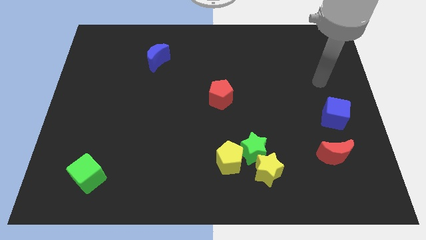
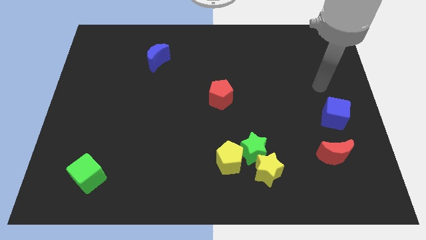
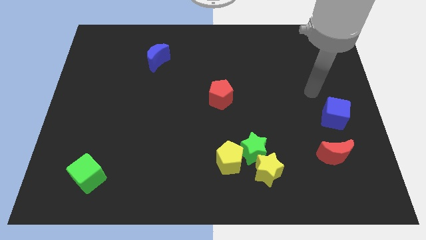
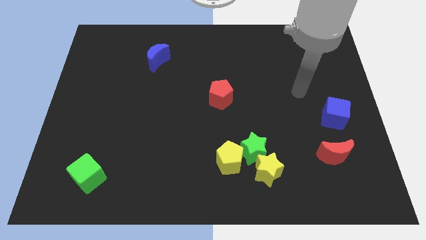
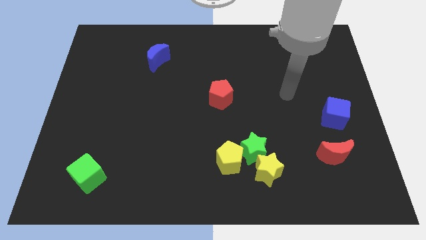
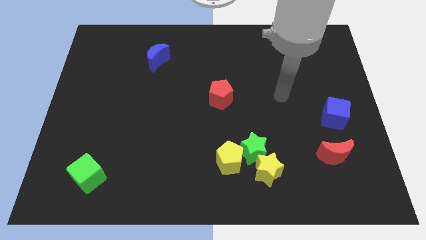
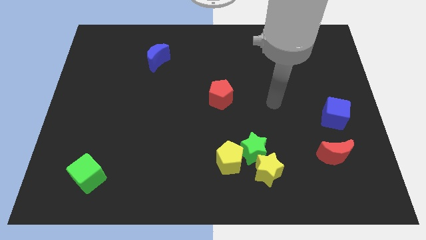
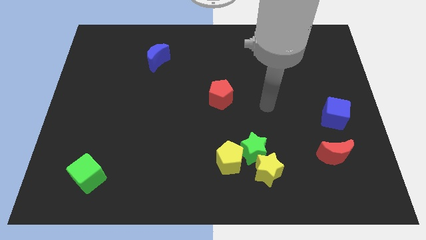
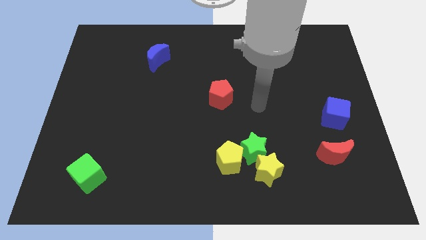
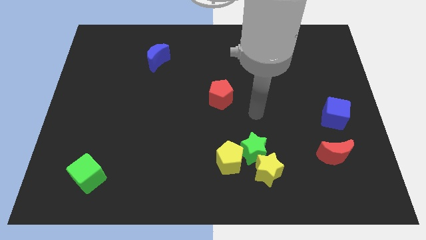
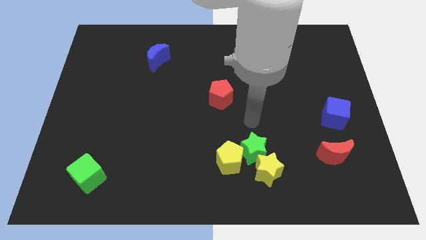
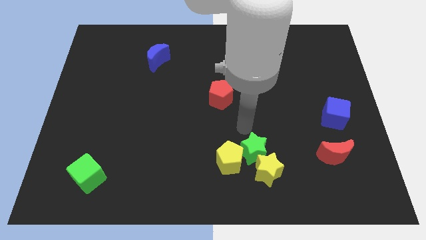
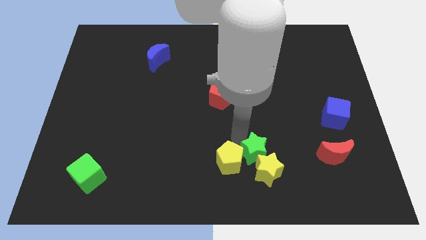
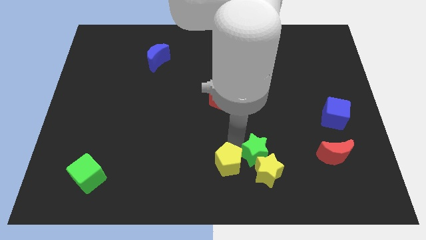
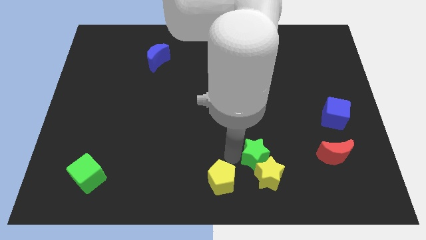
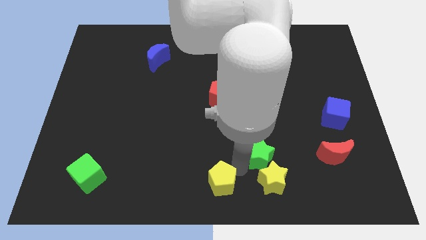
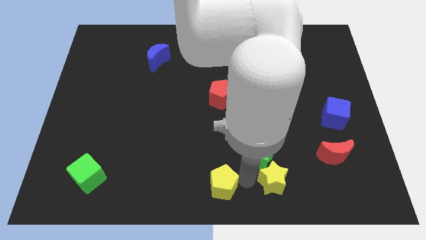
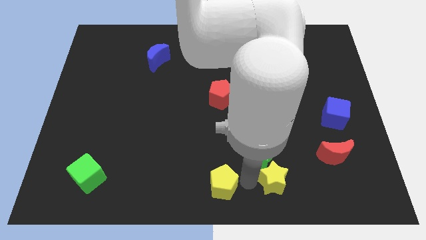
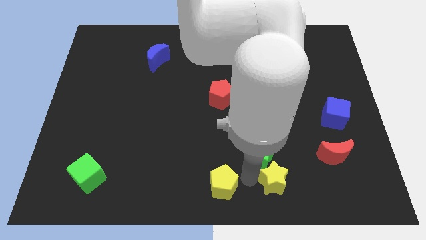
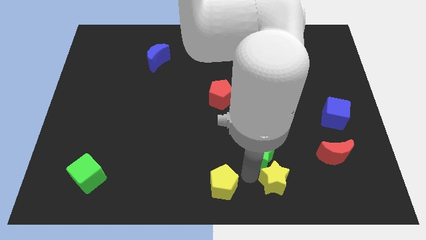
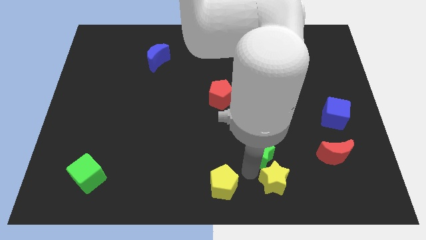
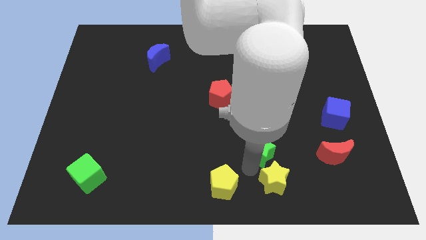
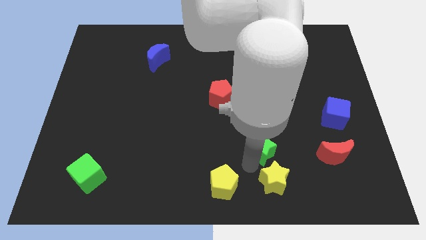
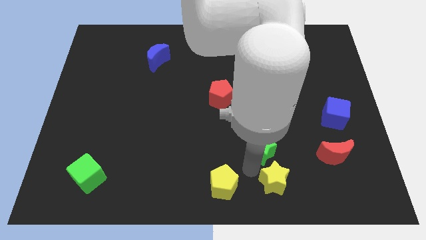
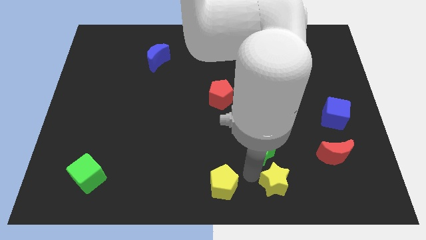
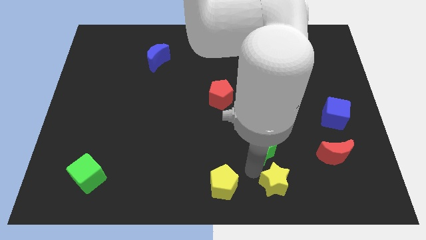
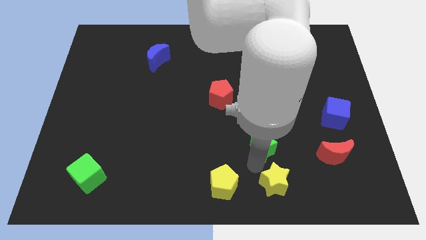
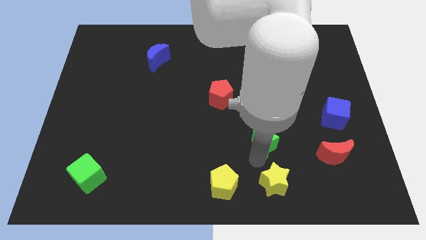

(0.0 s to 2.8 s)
move the green star away from the yellow star and yellow pentagon

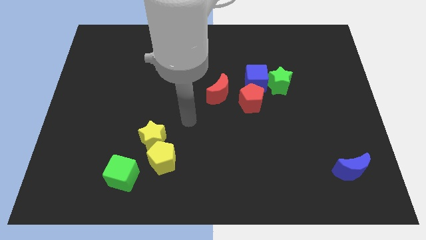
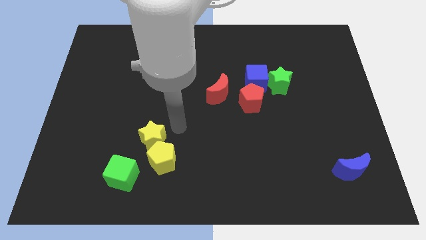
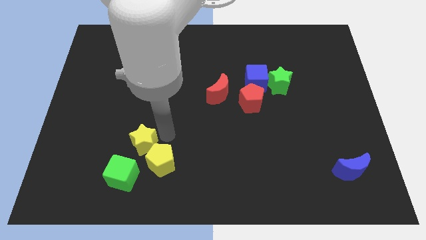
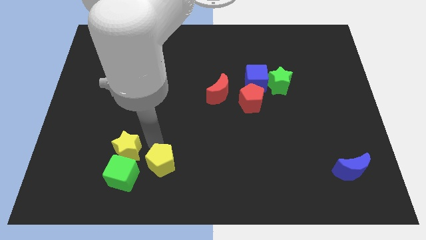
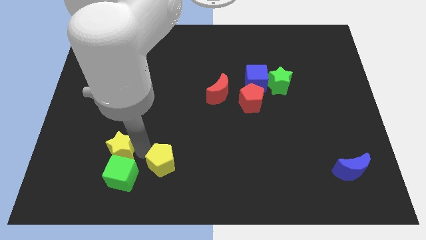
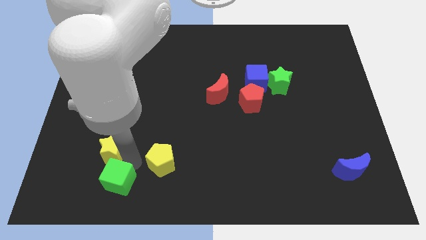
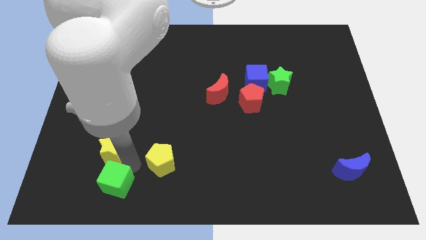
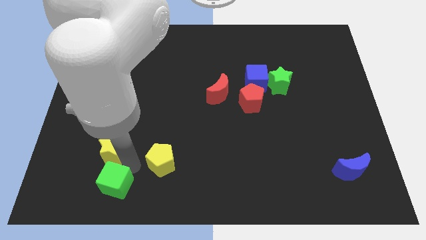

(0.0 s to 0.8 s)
separate the yellow pentagon from the yellow star and green cube

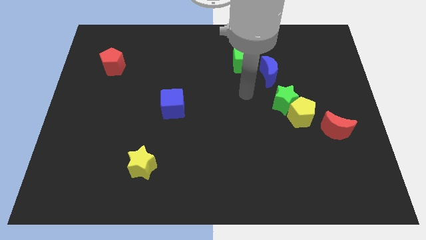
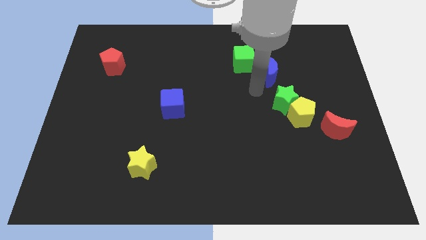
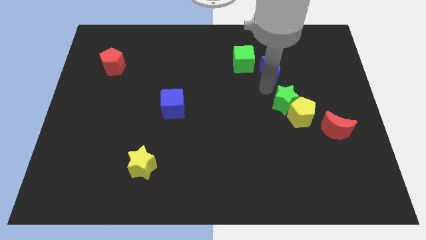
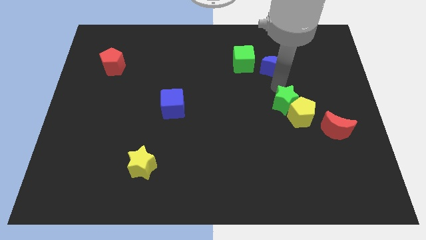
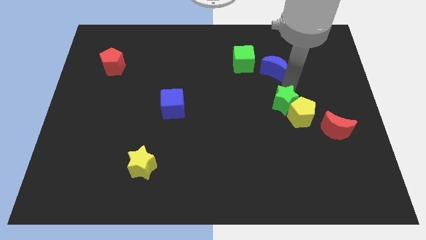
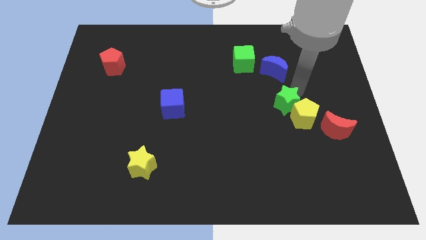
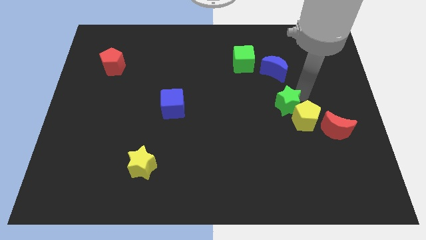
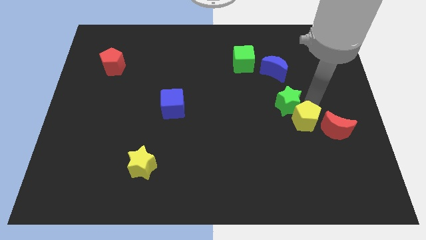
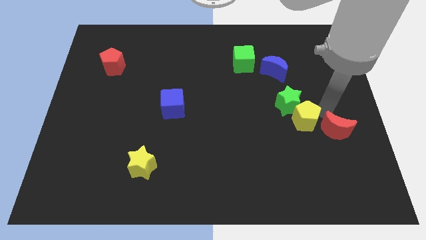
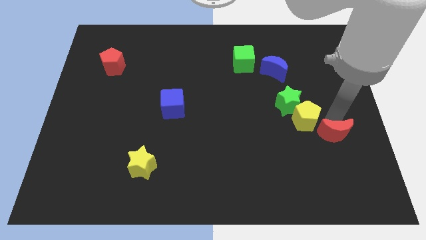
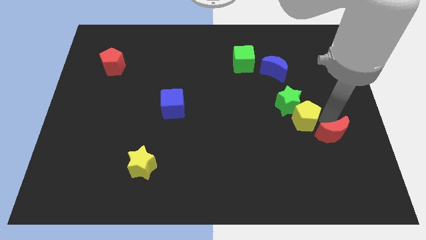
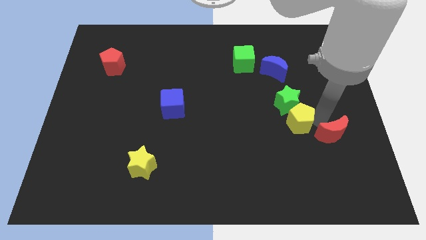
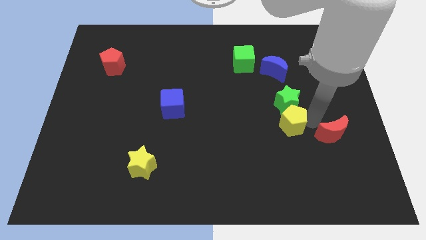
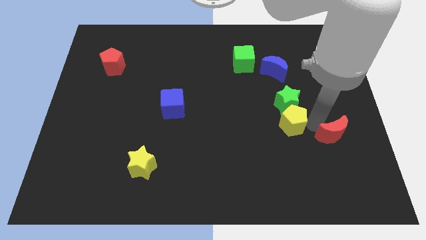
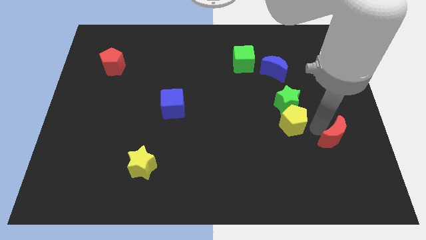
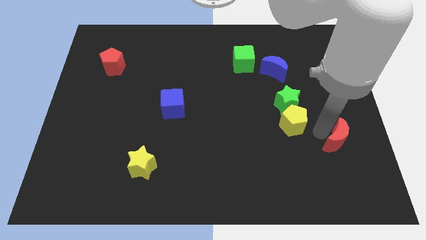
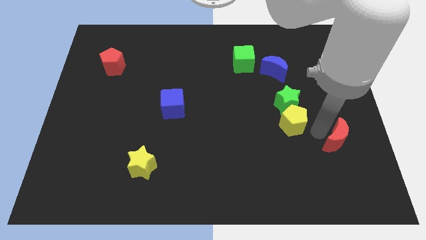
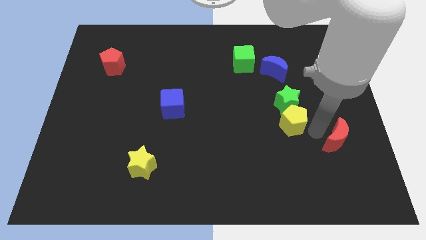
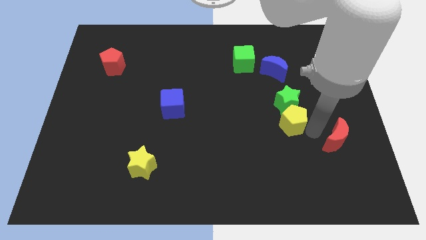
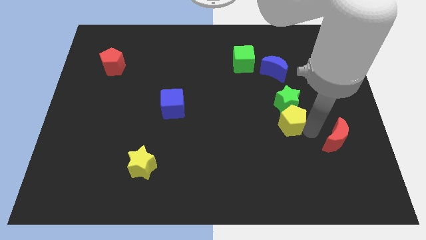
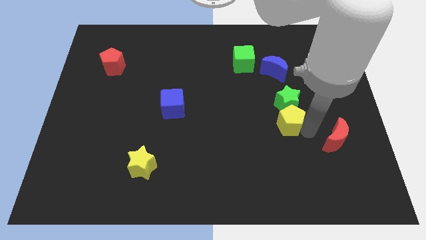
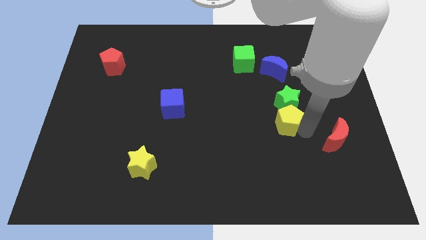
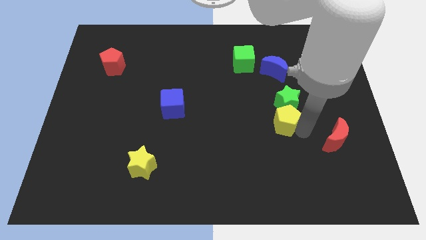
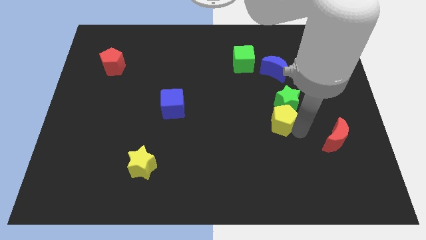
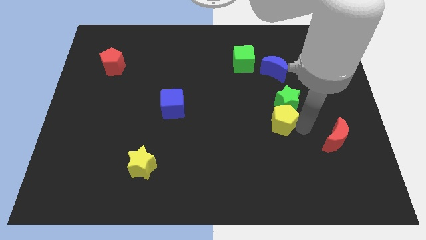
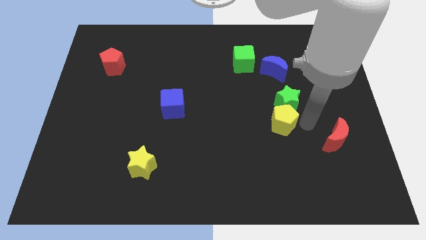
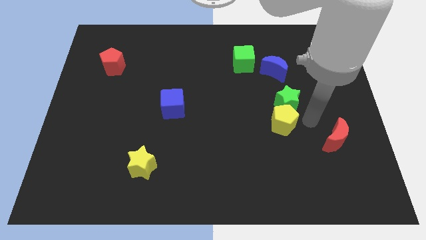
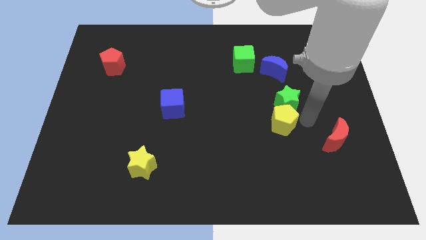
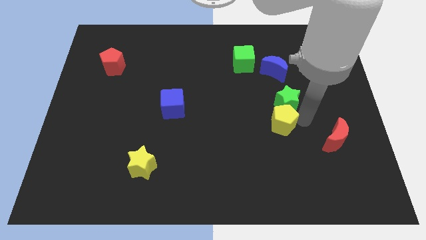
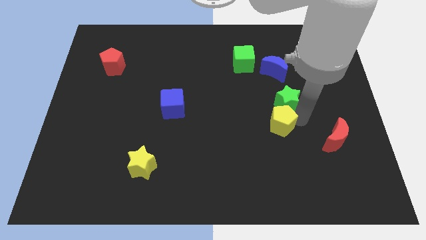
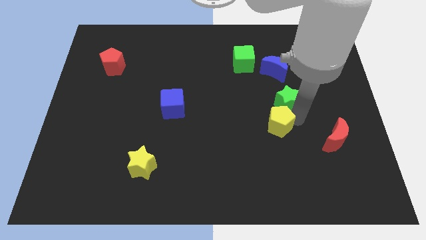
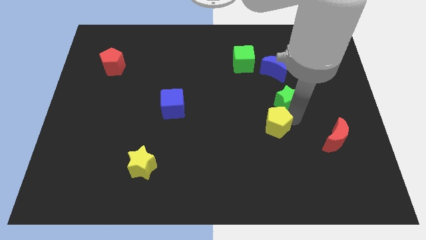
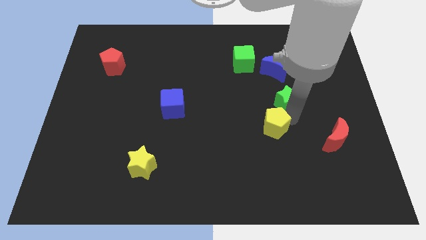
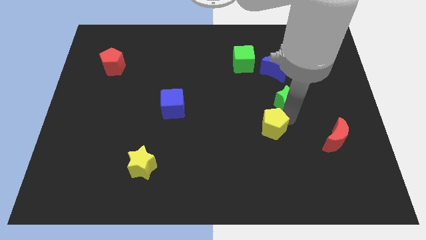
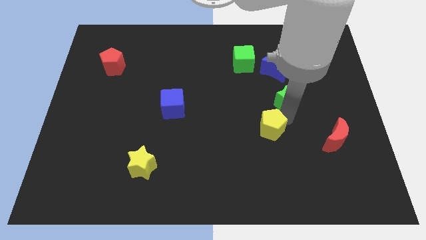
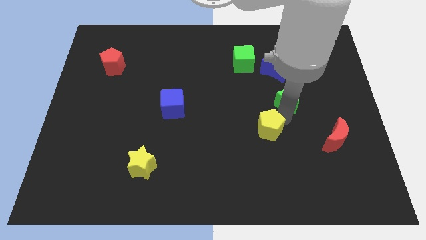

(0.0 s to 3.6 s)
move the yellow pentagon away from the green star and red moon

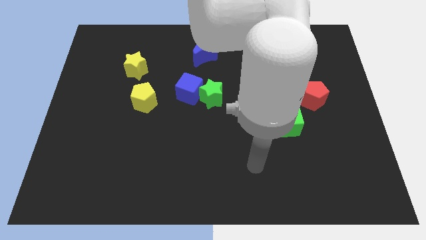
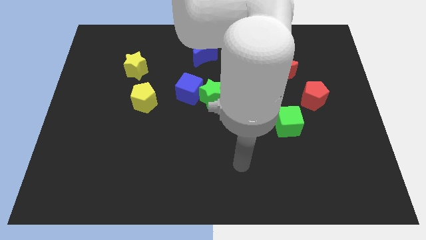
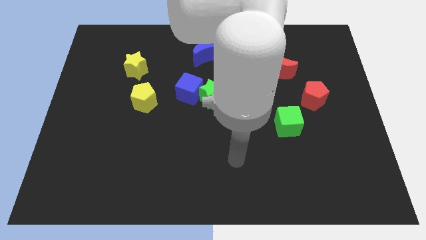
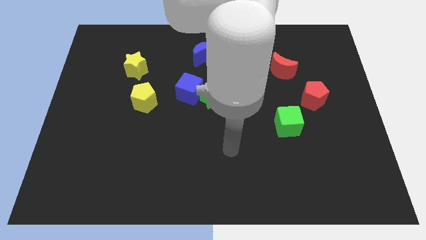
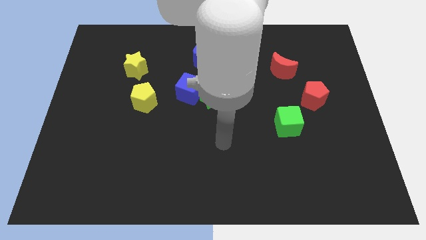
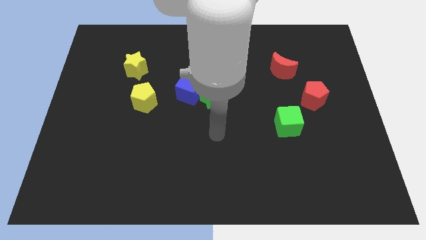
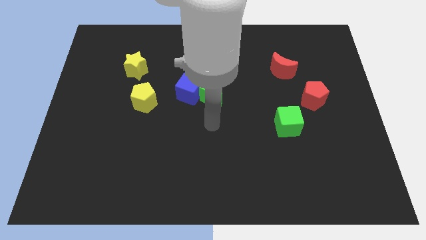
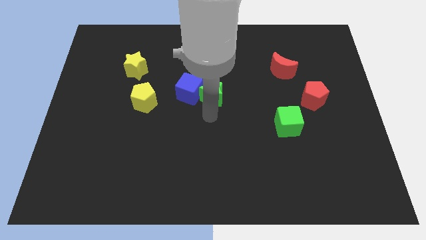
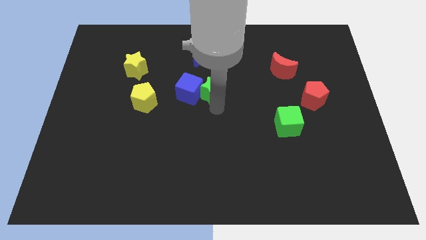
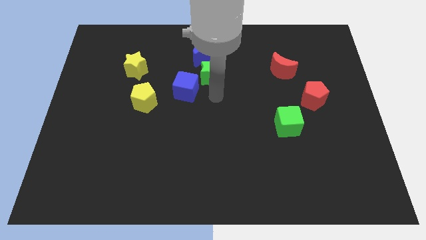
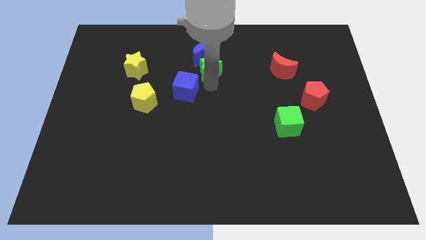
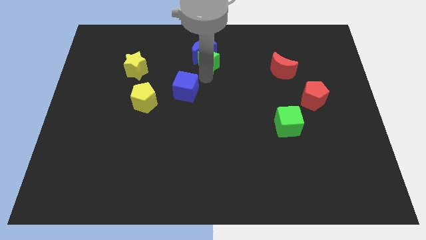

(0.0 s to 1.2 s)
pull the blue cube apart from the green star

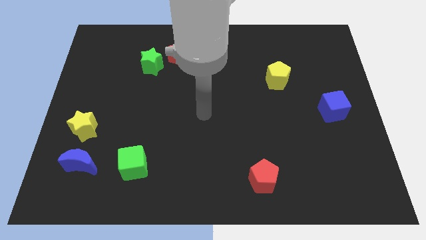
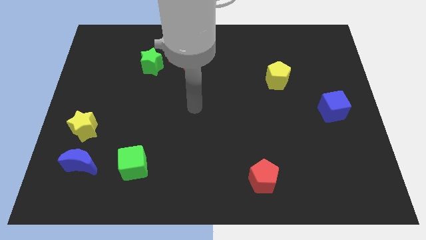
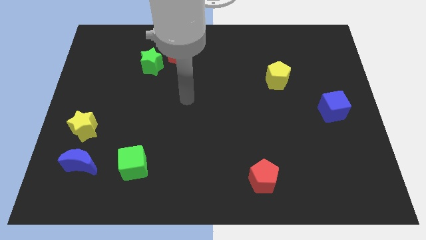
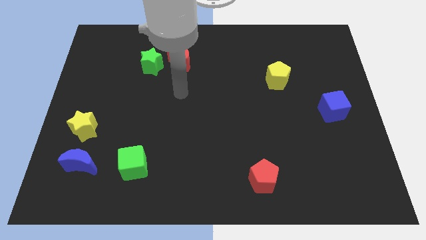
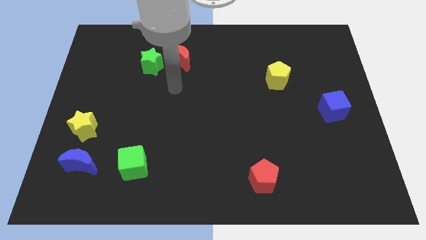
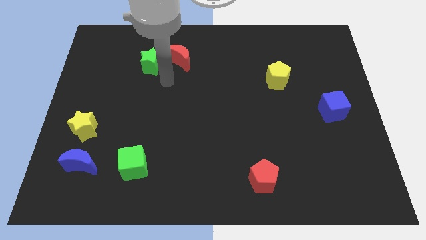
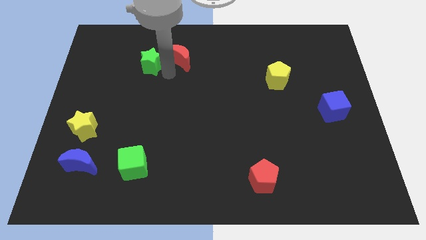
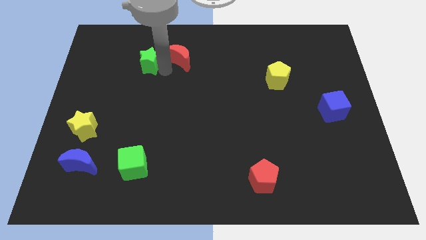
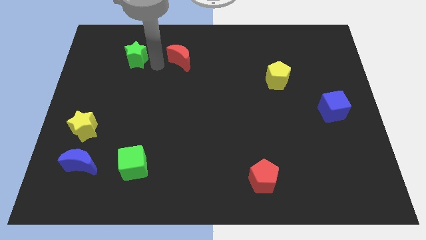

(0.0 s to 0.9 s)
separate the red moon from the green star
